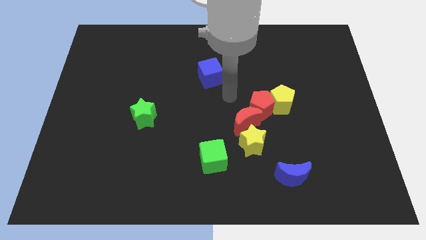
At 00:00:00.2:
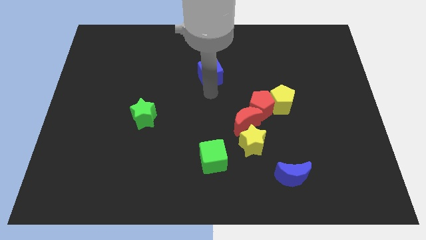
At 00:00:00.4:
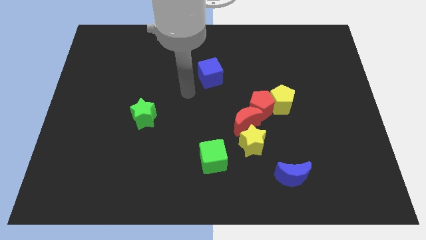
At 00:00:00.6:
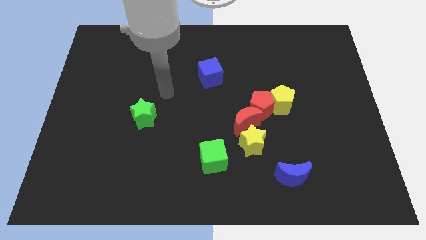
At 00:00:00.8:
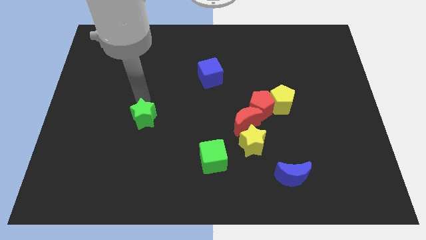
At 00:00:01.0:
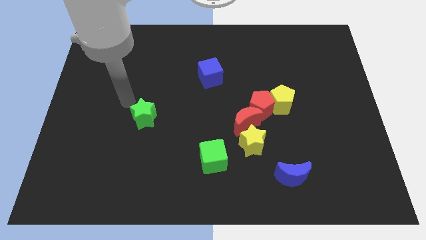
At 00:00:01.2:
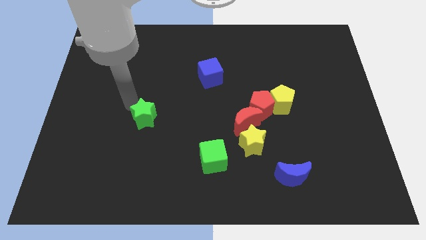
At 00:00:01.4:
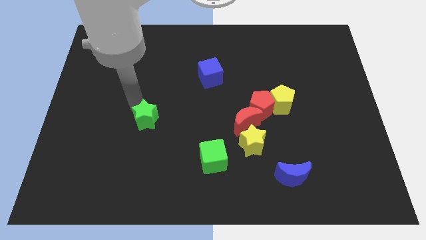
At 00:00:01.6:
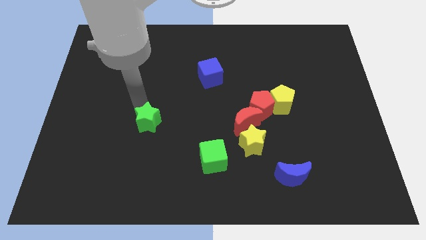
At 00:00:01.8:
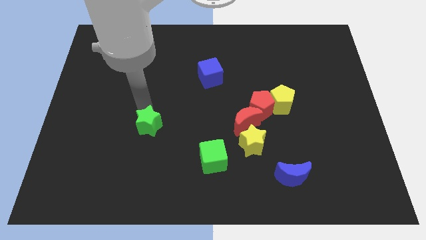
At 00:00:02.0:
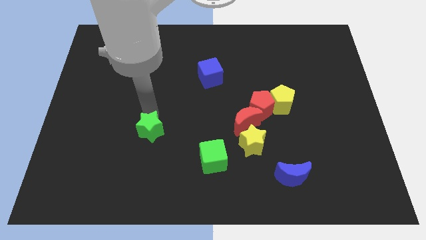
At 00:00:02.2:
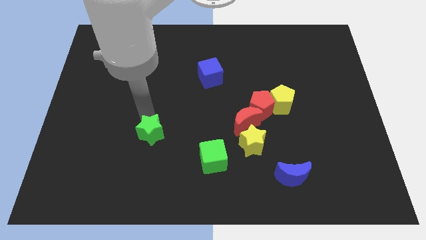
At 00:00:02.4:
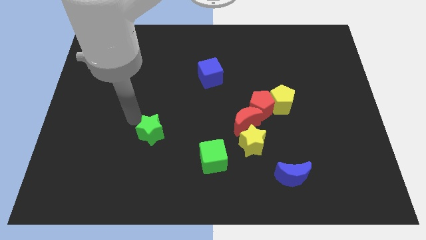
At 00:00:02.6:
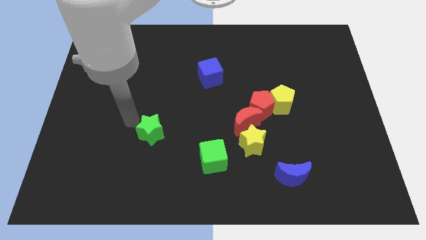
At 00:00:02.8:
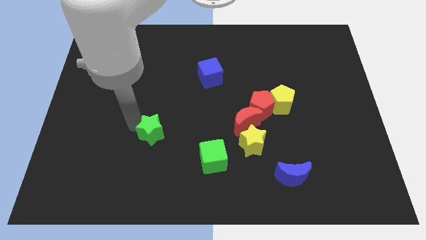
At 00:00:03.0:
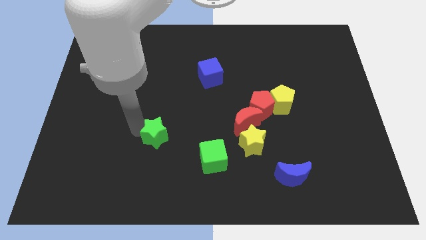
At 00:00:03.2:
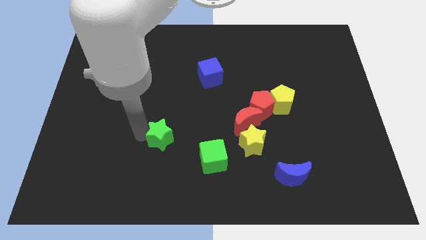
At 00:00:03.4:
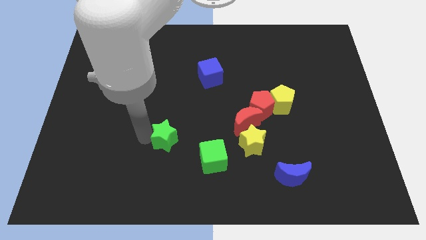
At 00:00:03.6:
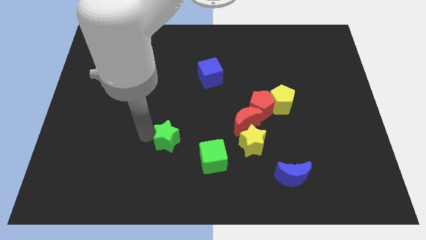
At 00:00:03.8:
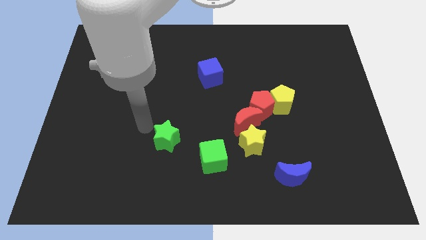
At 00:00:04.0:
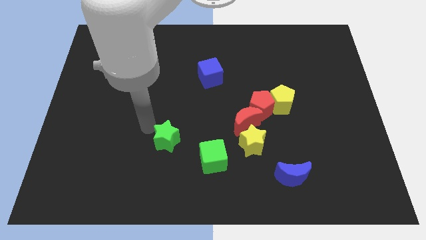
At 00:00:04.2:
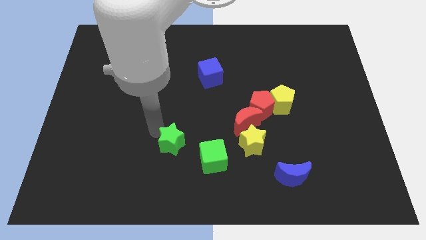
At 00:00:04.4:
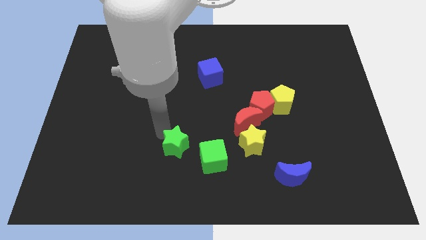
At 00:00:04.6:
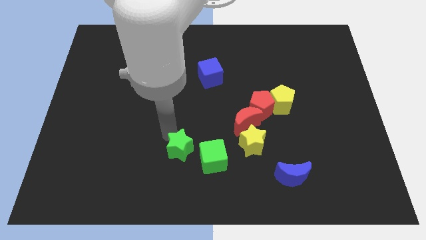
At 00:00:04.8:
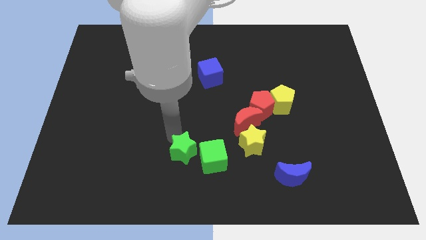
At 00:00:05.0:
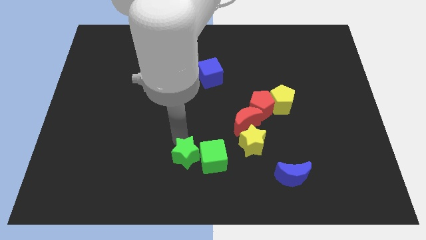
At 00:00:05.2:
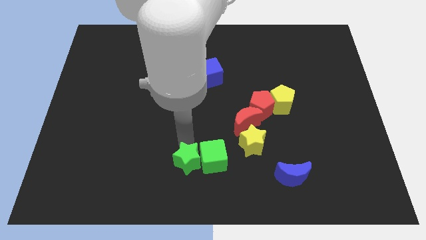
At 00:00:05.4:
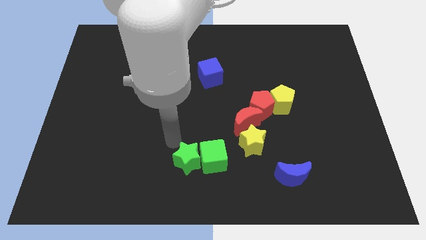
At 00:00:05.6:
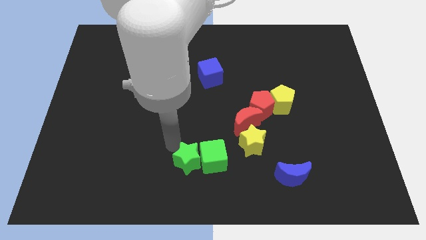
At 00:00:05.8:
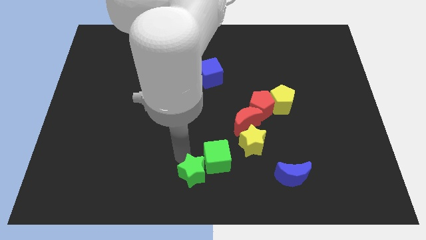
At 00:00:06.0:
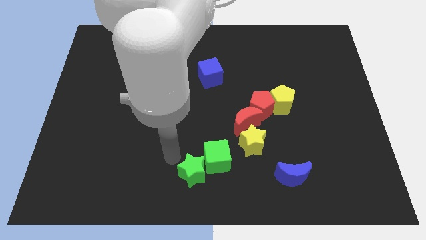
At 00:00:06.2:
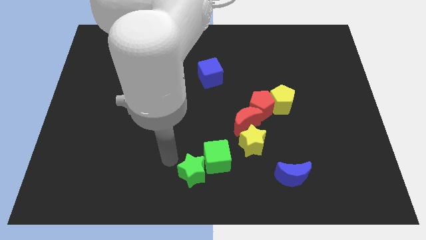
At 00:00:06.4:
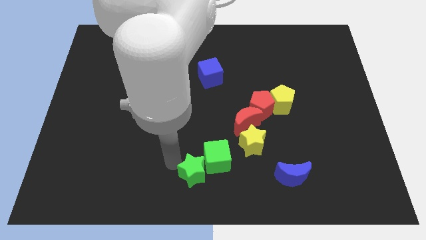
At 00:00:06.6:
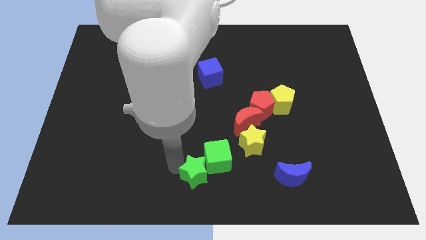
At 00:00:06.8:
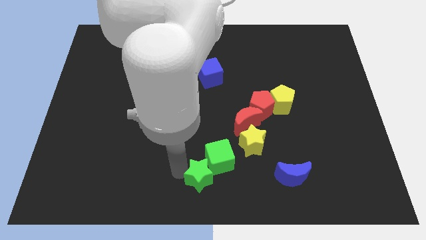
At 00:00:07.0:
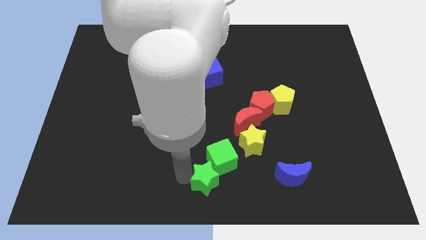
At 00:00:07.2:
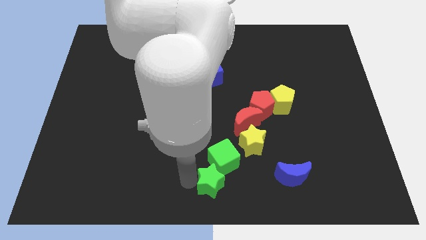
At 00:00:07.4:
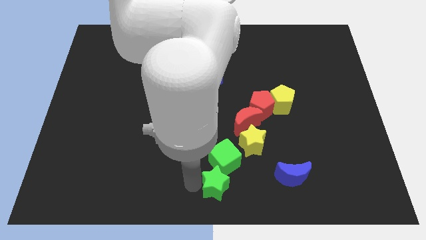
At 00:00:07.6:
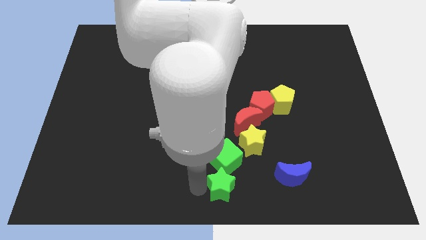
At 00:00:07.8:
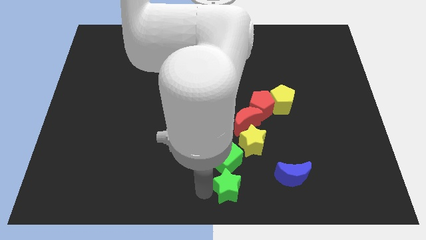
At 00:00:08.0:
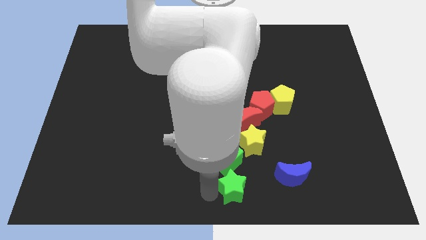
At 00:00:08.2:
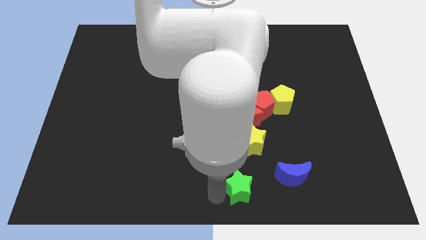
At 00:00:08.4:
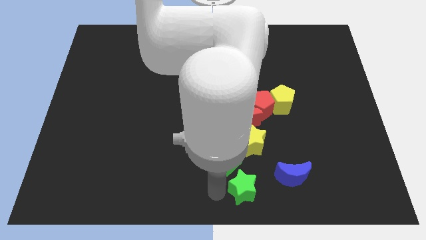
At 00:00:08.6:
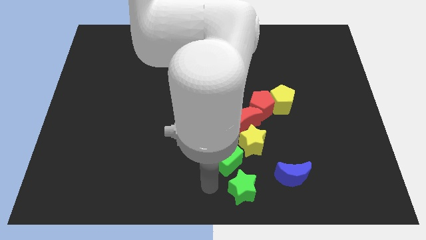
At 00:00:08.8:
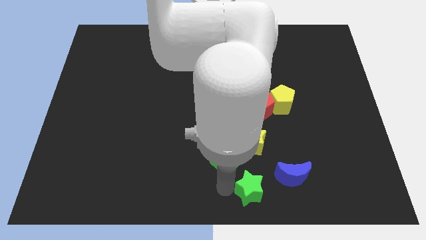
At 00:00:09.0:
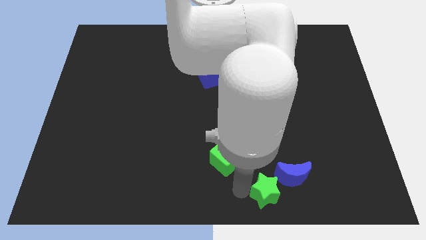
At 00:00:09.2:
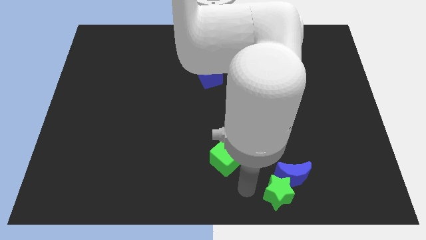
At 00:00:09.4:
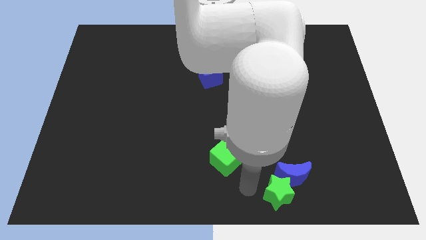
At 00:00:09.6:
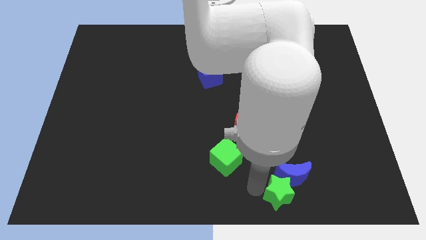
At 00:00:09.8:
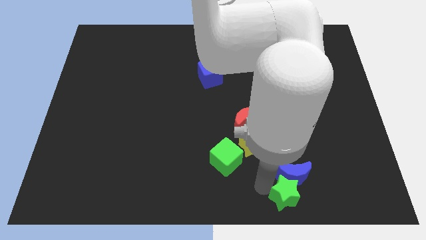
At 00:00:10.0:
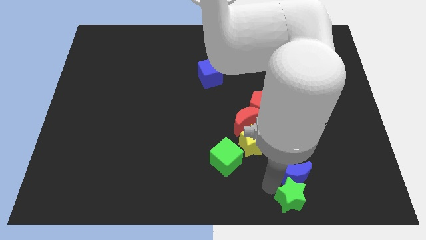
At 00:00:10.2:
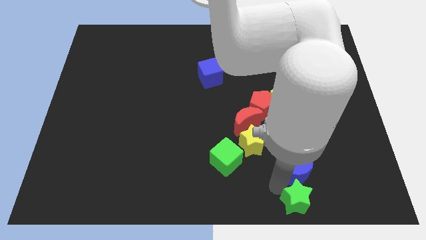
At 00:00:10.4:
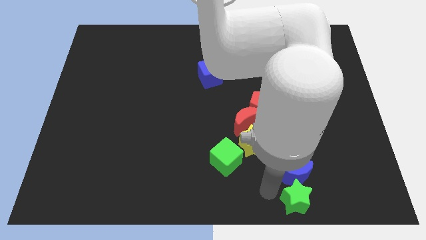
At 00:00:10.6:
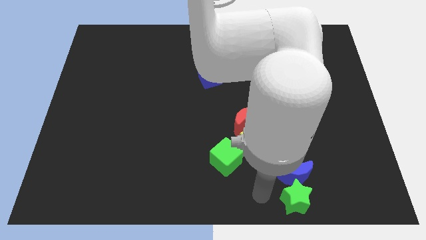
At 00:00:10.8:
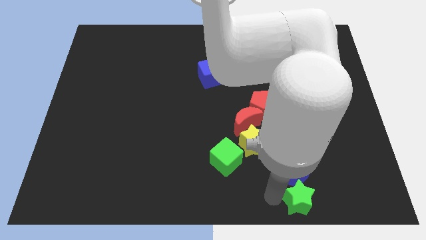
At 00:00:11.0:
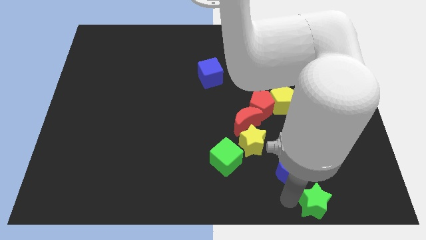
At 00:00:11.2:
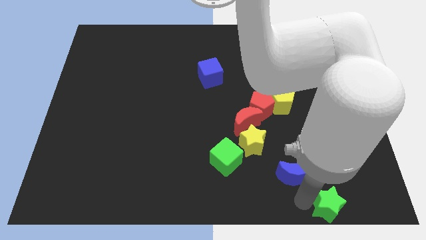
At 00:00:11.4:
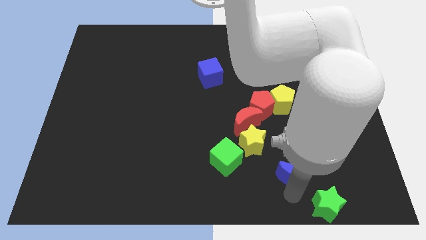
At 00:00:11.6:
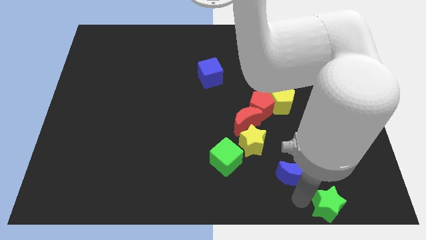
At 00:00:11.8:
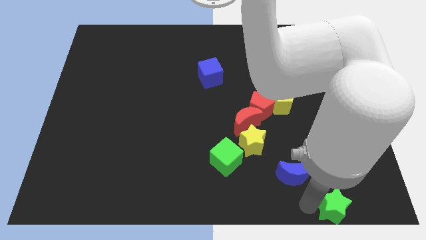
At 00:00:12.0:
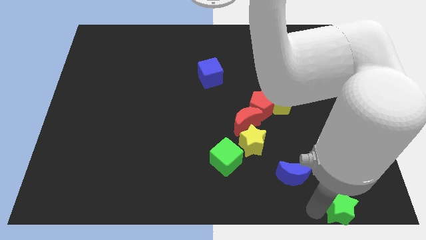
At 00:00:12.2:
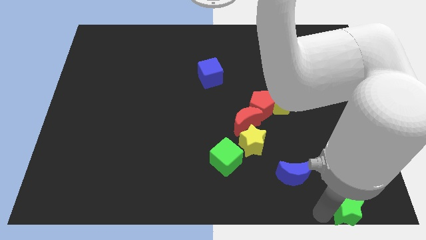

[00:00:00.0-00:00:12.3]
slide the green star to the bottom right
